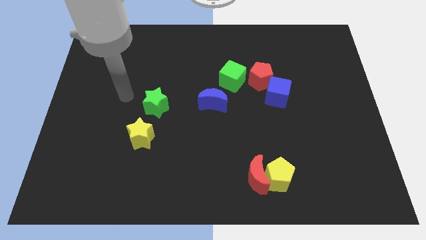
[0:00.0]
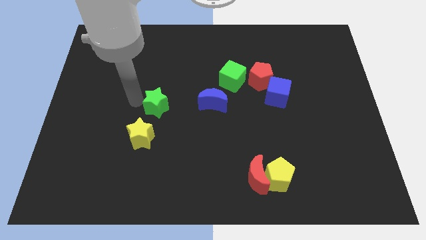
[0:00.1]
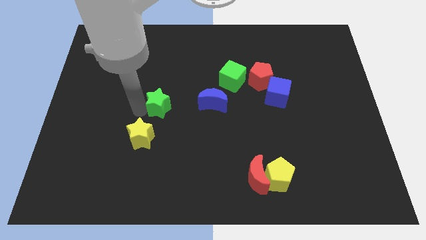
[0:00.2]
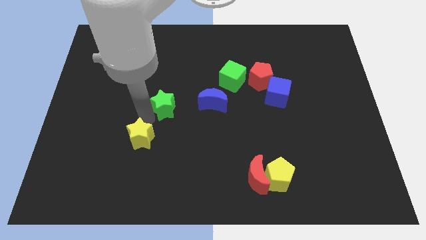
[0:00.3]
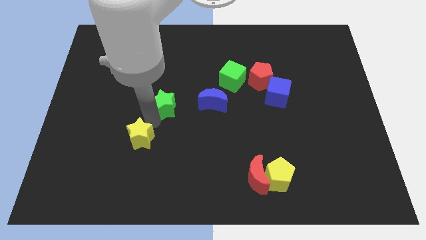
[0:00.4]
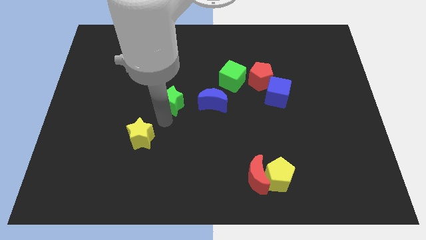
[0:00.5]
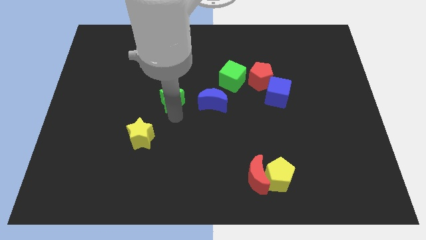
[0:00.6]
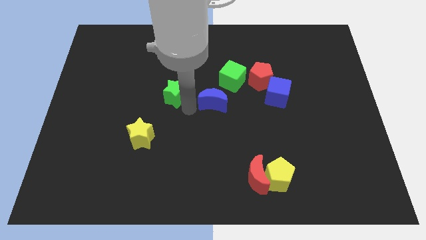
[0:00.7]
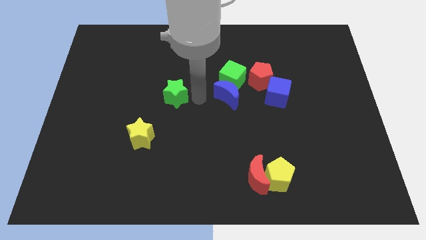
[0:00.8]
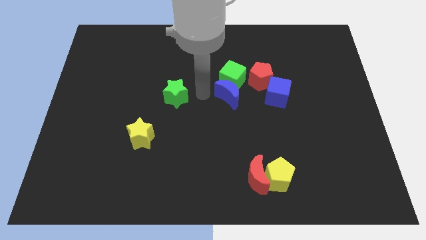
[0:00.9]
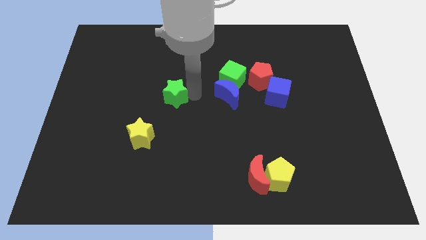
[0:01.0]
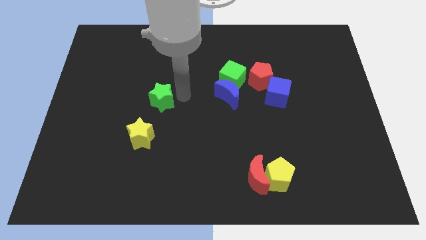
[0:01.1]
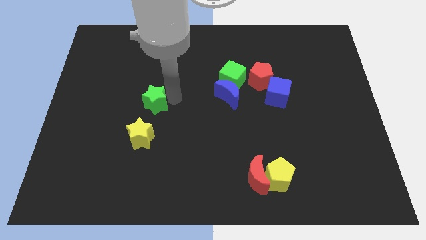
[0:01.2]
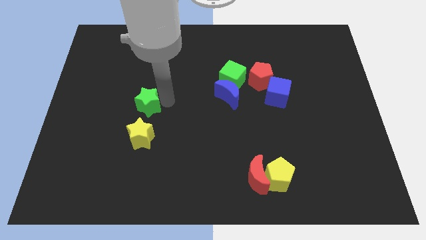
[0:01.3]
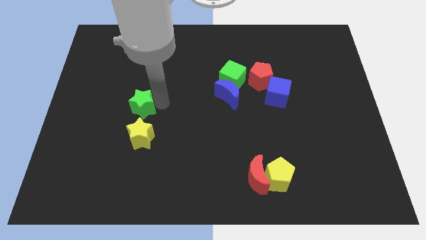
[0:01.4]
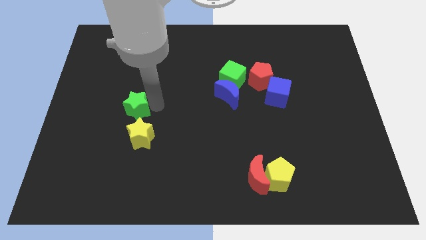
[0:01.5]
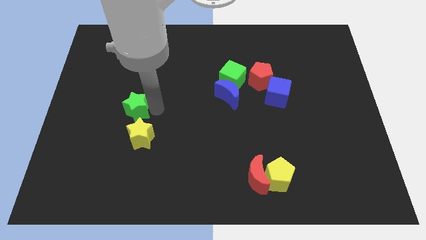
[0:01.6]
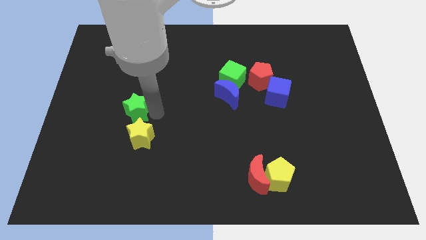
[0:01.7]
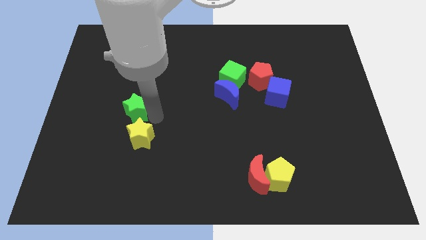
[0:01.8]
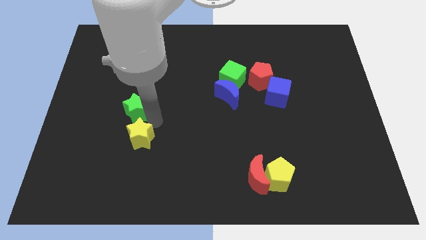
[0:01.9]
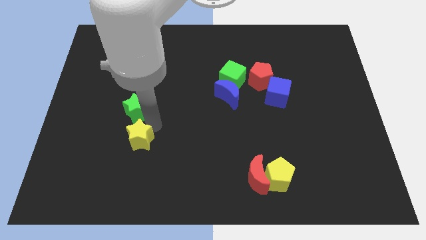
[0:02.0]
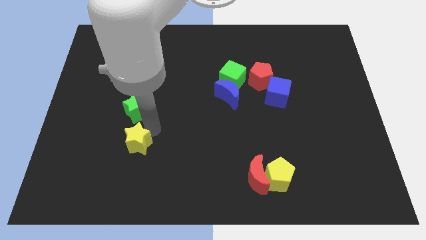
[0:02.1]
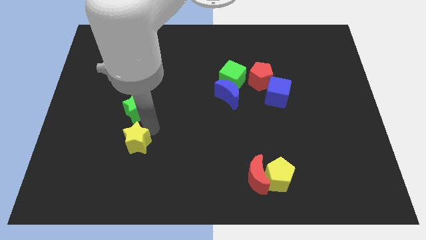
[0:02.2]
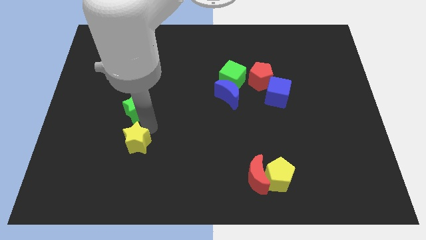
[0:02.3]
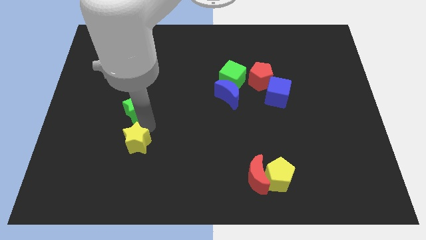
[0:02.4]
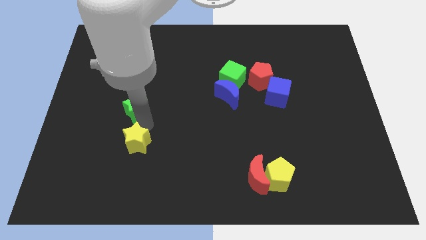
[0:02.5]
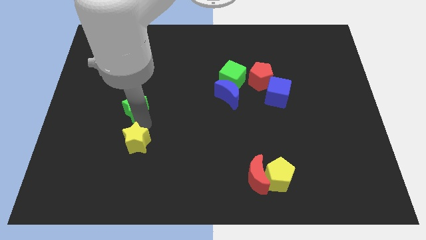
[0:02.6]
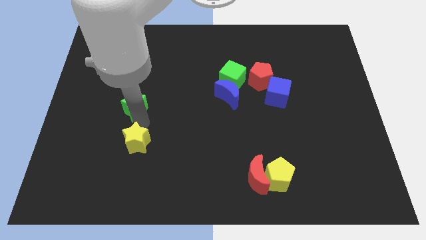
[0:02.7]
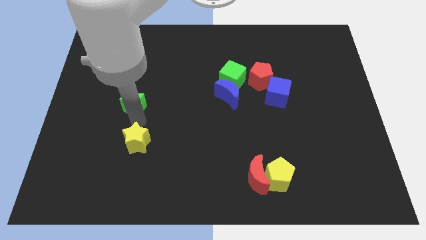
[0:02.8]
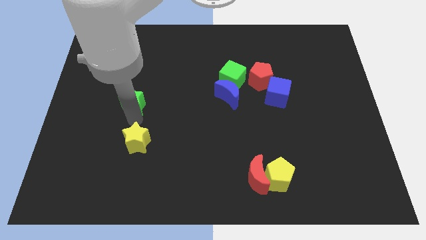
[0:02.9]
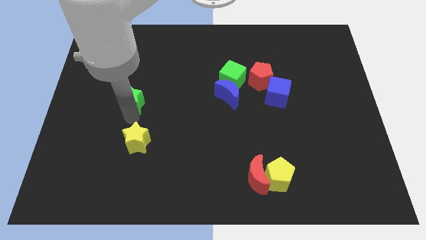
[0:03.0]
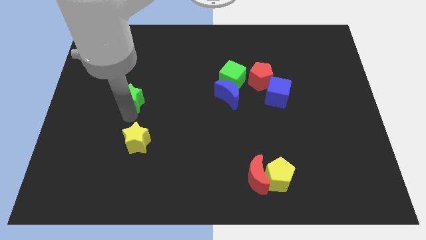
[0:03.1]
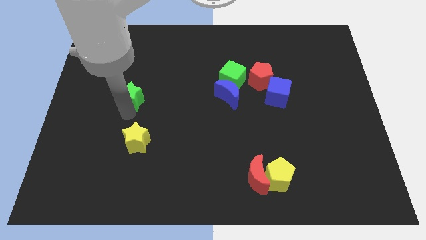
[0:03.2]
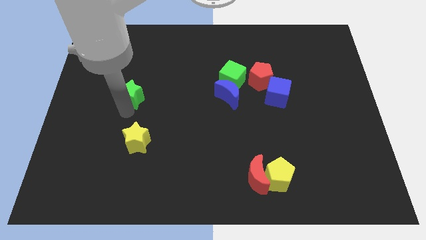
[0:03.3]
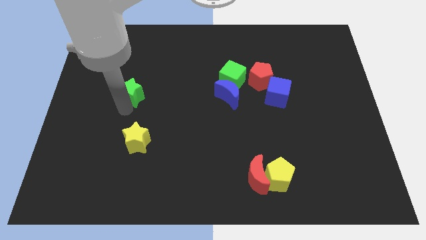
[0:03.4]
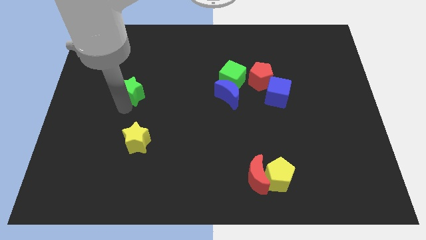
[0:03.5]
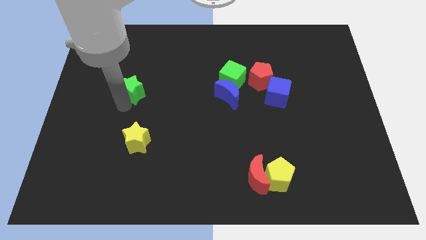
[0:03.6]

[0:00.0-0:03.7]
push the green star up and to the left diagonally slightly

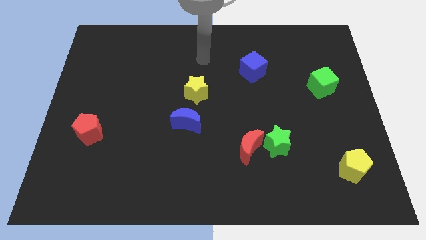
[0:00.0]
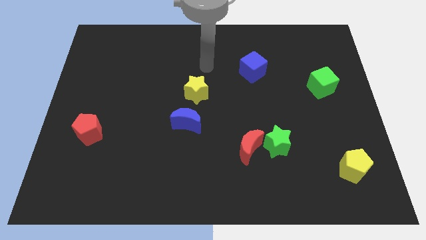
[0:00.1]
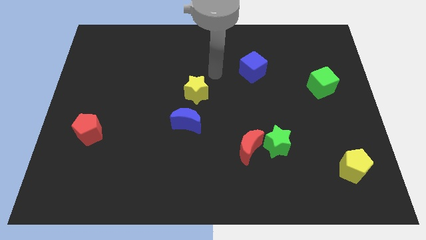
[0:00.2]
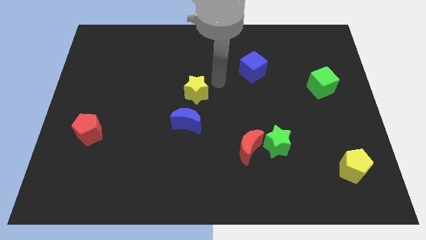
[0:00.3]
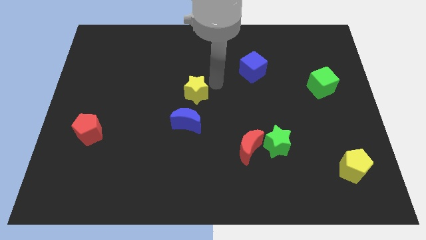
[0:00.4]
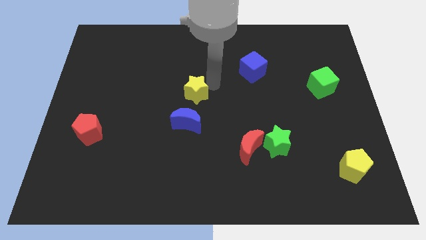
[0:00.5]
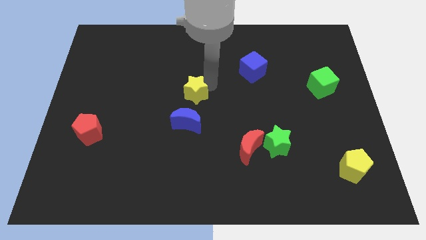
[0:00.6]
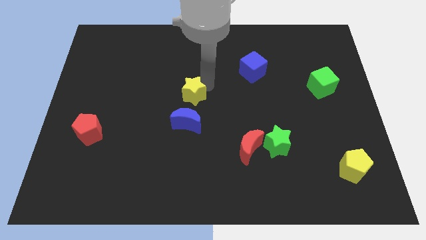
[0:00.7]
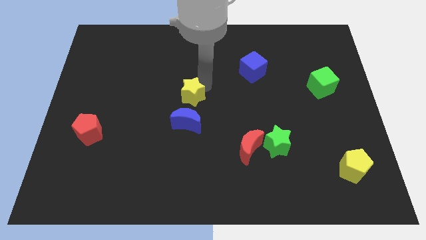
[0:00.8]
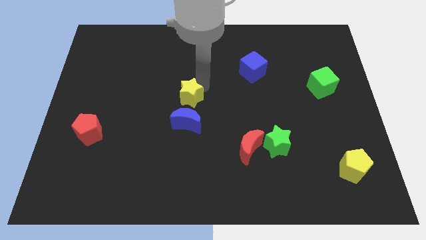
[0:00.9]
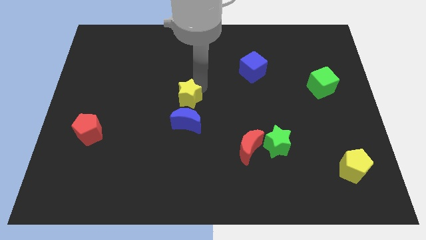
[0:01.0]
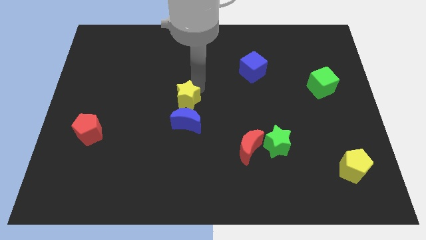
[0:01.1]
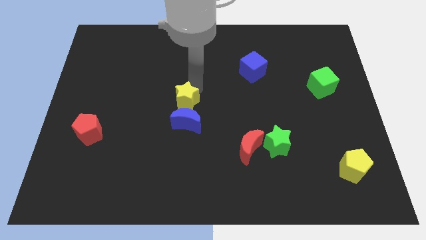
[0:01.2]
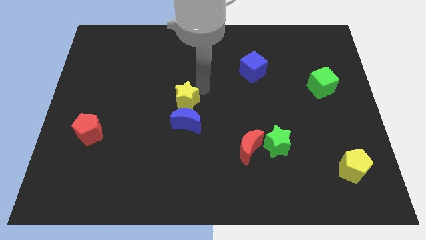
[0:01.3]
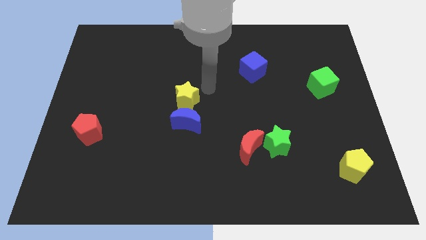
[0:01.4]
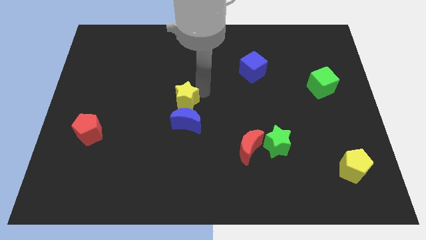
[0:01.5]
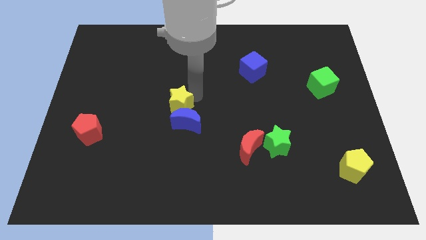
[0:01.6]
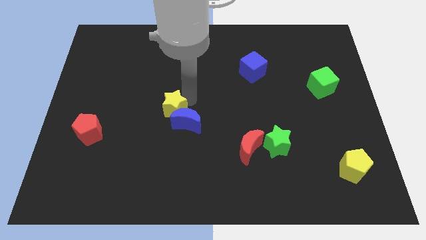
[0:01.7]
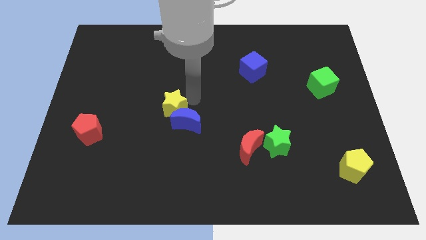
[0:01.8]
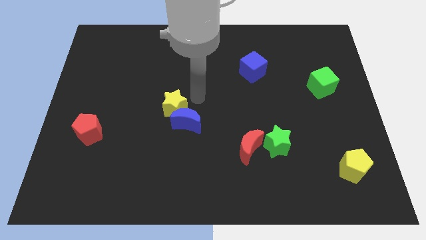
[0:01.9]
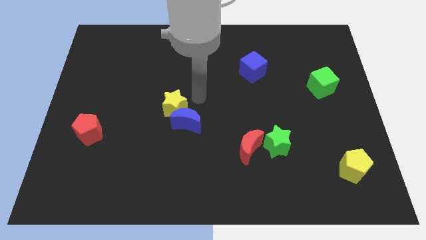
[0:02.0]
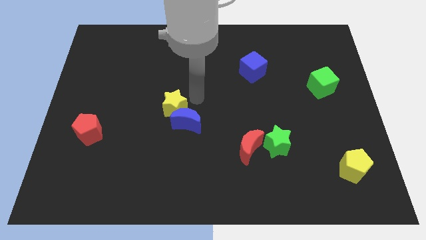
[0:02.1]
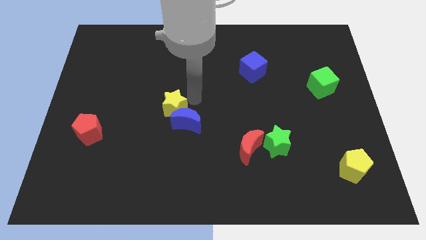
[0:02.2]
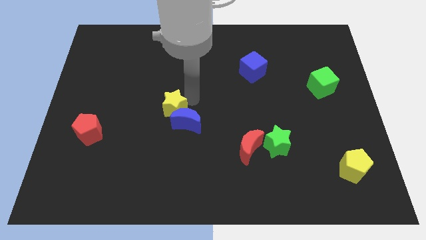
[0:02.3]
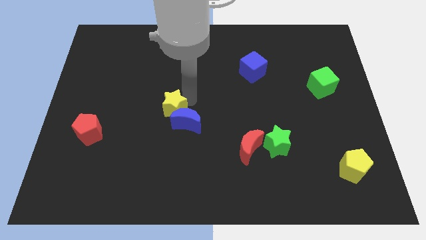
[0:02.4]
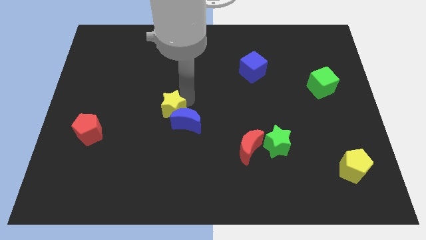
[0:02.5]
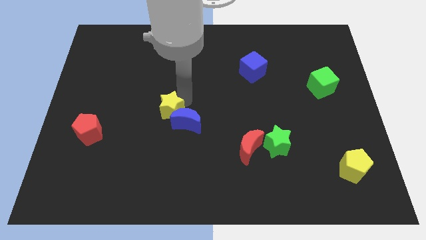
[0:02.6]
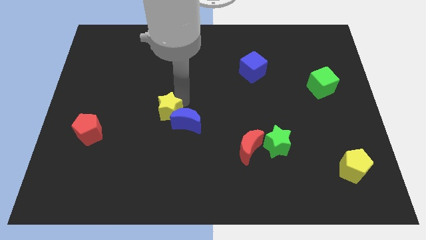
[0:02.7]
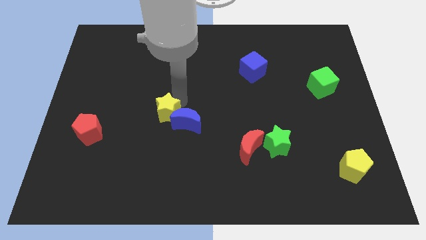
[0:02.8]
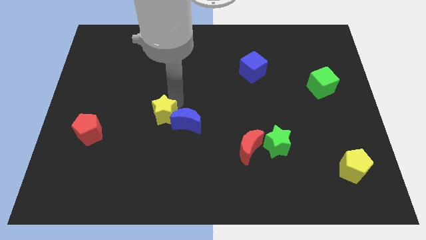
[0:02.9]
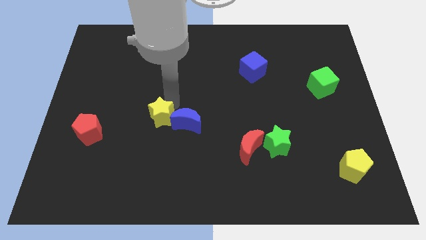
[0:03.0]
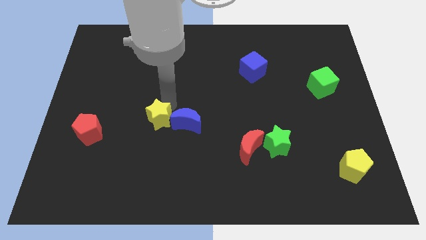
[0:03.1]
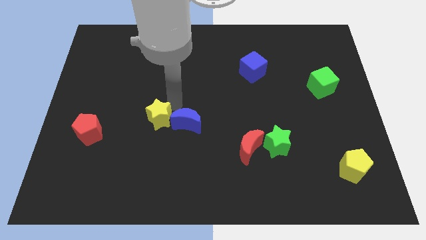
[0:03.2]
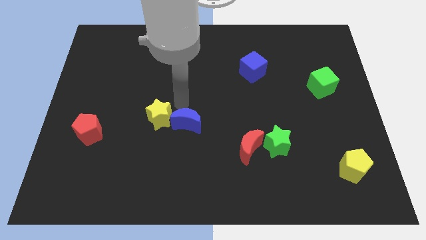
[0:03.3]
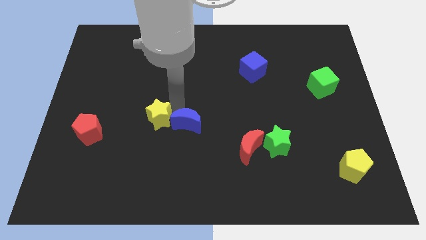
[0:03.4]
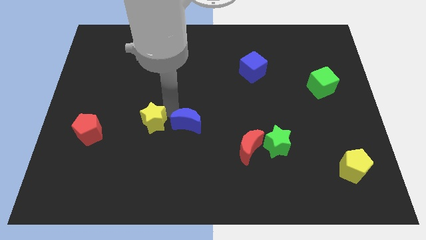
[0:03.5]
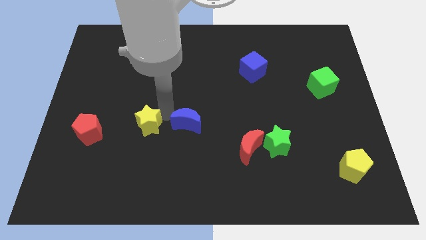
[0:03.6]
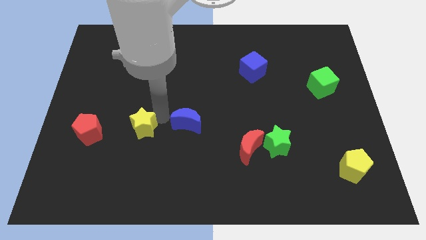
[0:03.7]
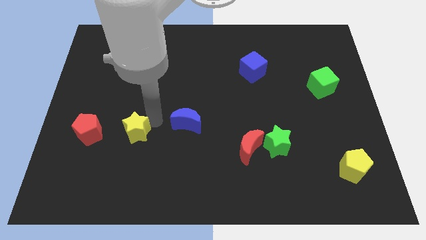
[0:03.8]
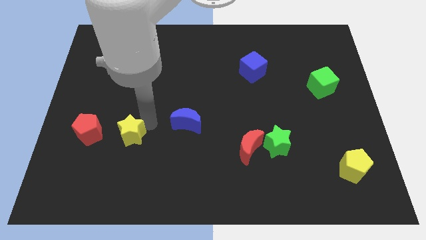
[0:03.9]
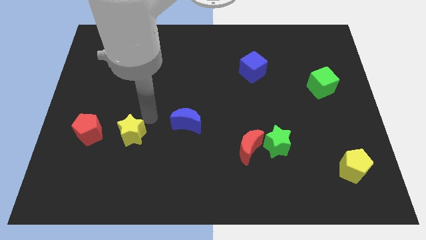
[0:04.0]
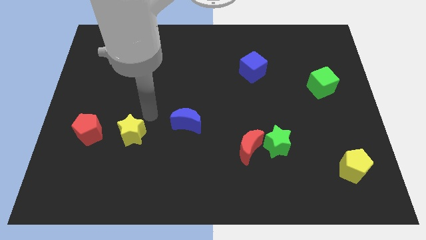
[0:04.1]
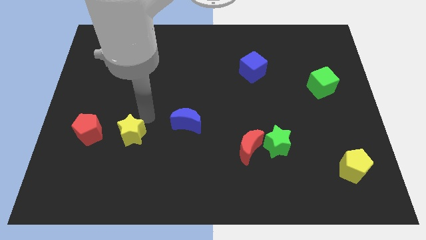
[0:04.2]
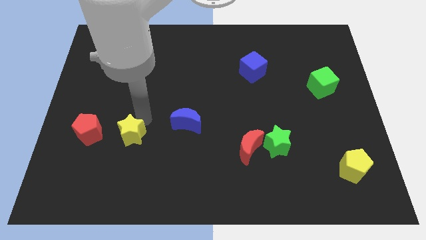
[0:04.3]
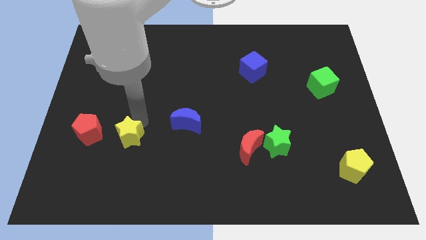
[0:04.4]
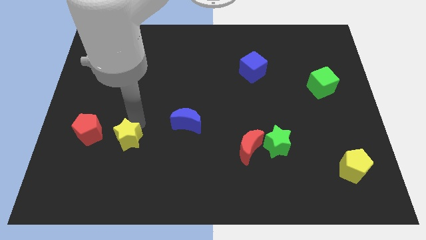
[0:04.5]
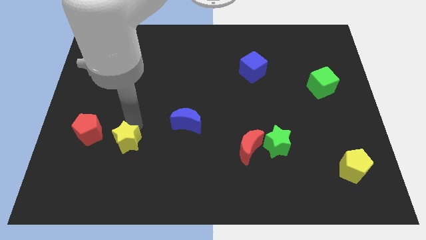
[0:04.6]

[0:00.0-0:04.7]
slide the yellow star downwards and then left

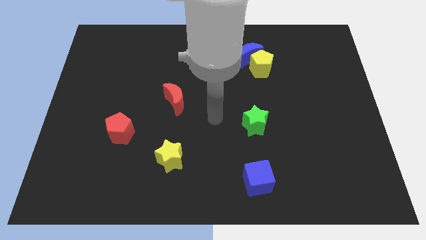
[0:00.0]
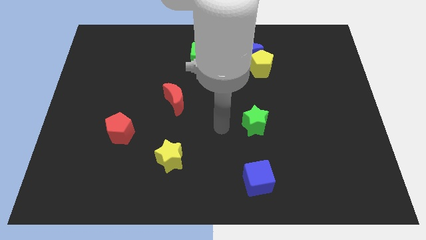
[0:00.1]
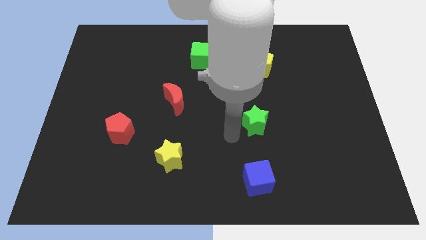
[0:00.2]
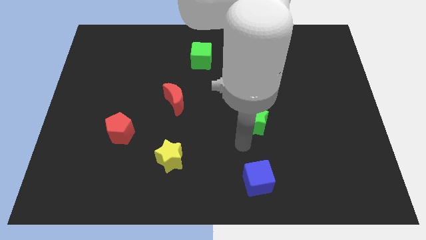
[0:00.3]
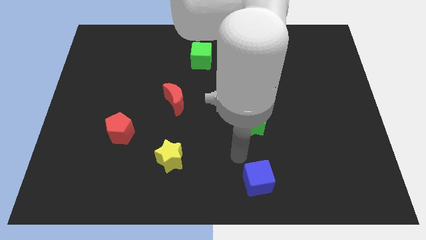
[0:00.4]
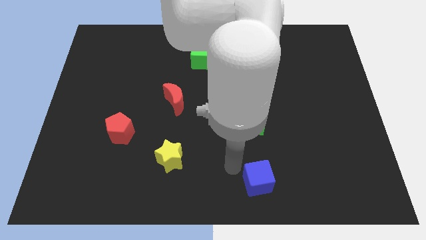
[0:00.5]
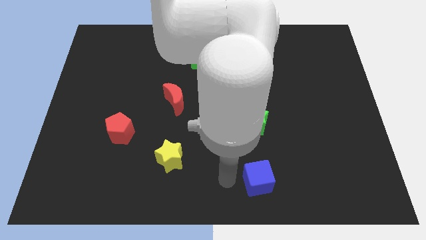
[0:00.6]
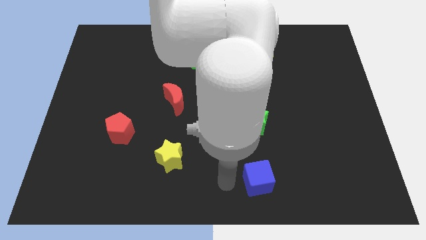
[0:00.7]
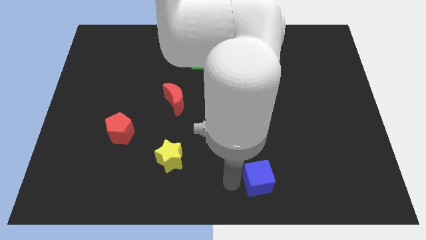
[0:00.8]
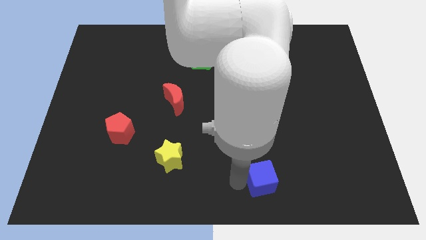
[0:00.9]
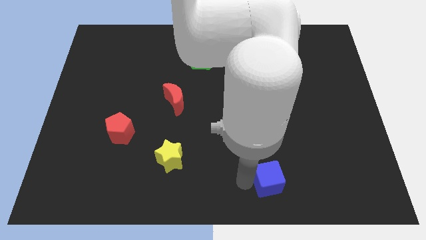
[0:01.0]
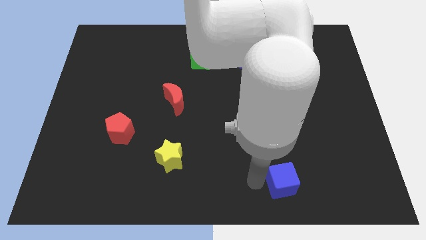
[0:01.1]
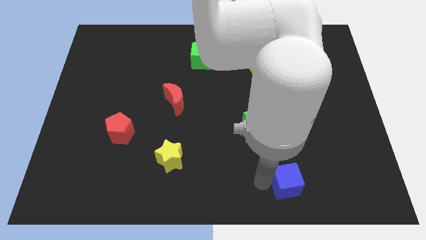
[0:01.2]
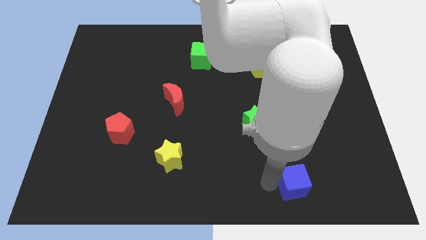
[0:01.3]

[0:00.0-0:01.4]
slide the blue cube slightly to the right
